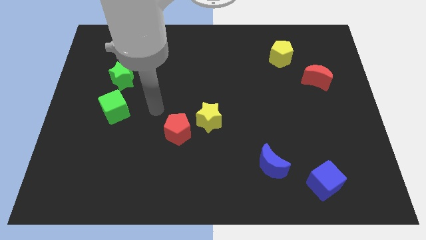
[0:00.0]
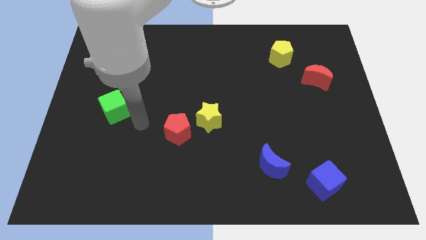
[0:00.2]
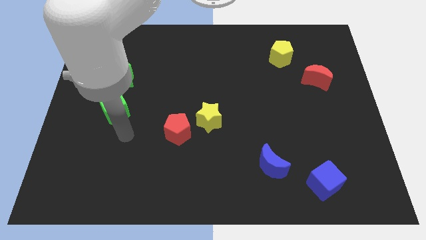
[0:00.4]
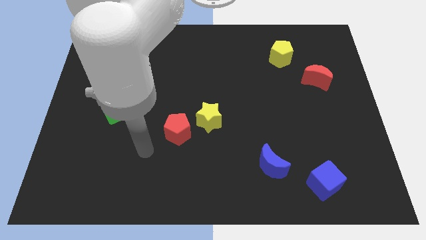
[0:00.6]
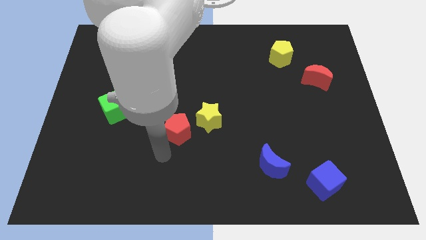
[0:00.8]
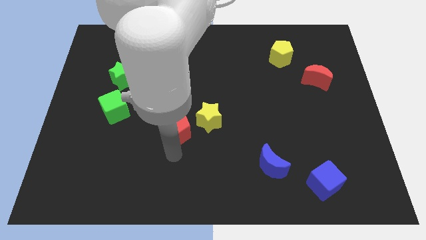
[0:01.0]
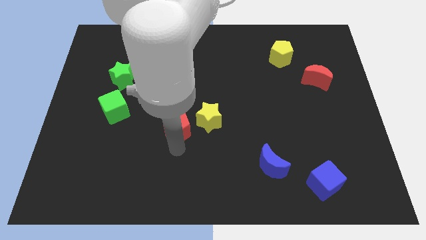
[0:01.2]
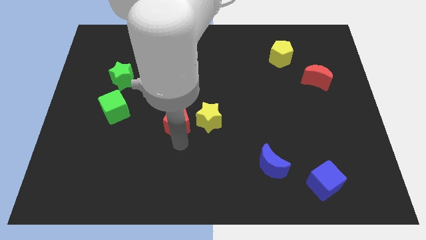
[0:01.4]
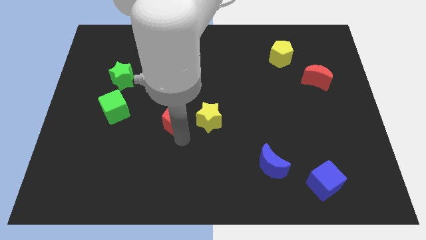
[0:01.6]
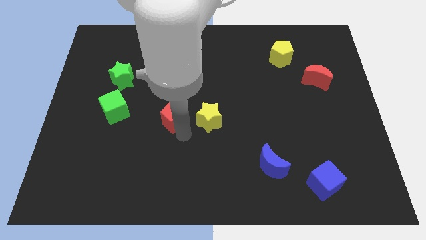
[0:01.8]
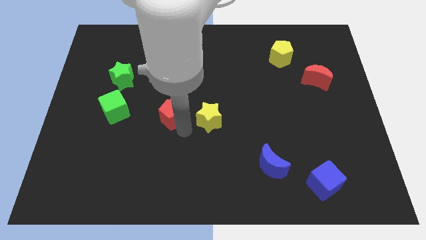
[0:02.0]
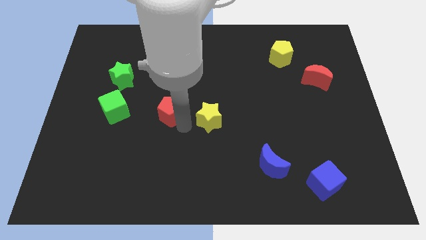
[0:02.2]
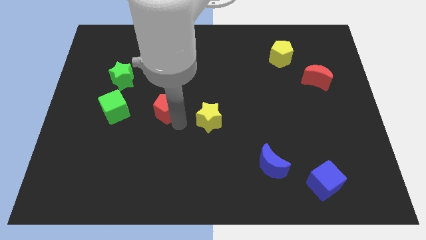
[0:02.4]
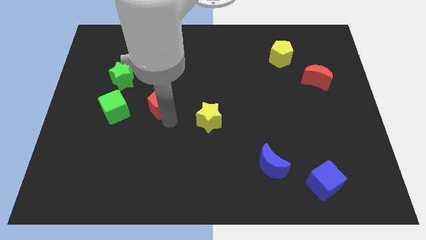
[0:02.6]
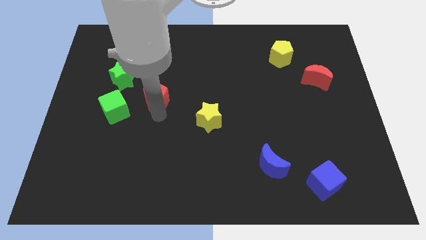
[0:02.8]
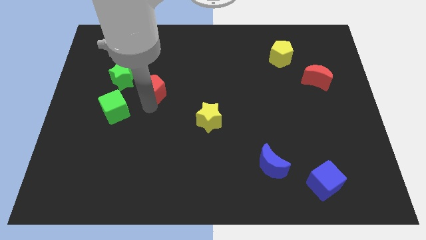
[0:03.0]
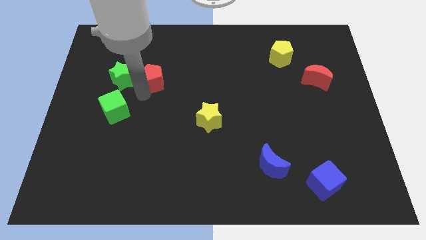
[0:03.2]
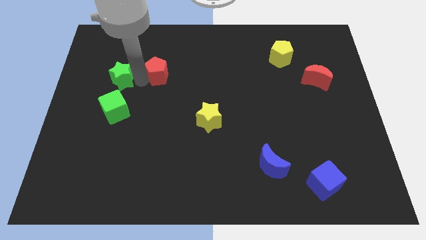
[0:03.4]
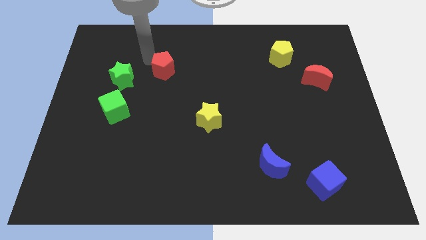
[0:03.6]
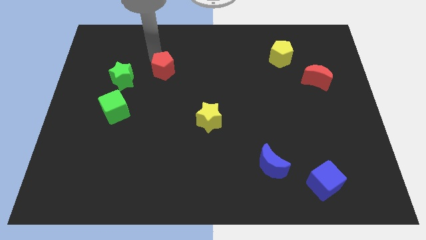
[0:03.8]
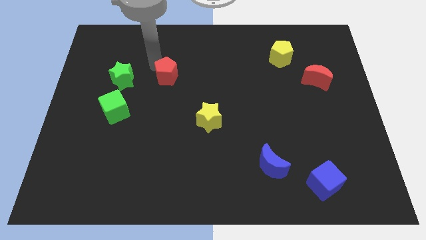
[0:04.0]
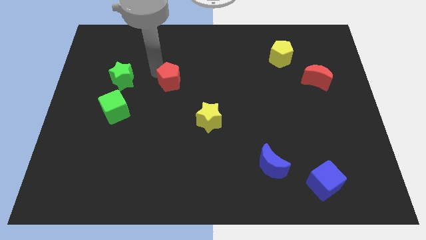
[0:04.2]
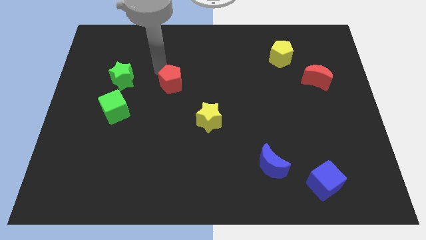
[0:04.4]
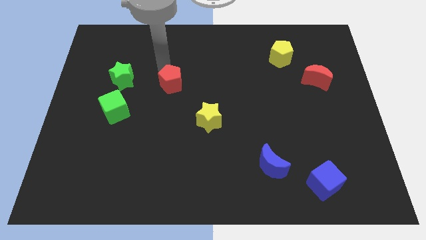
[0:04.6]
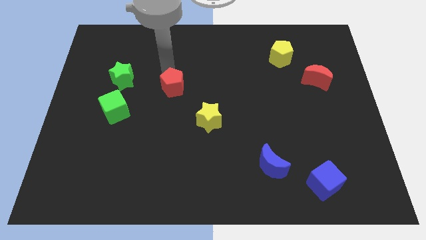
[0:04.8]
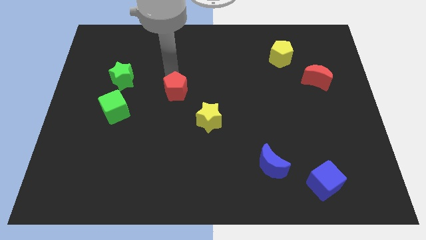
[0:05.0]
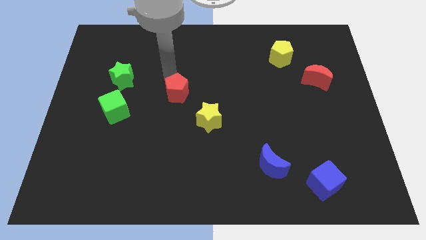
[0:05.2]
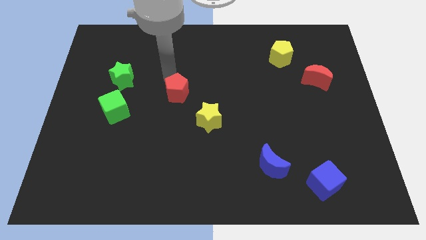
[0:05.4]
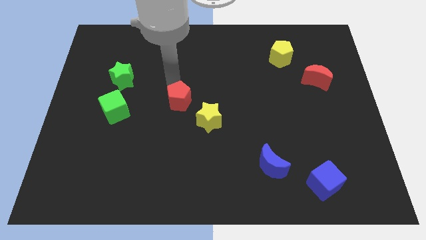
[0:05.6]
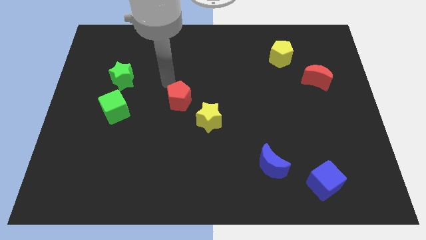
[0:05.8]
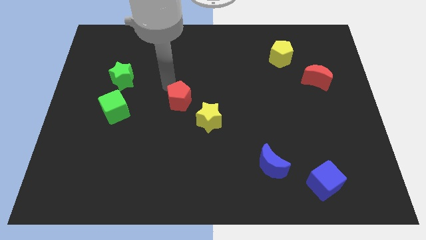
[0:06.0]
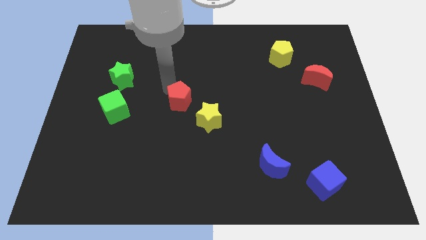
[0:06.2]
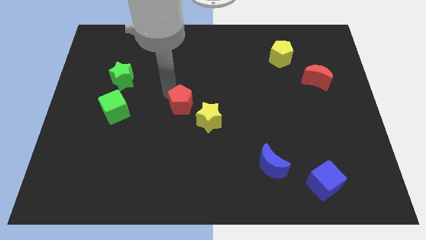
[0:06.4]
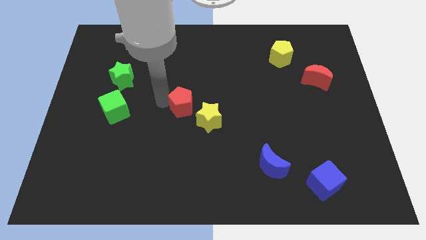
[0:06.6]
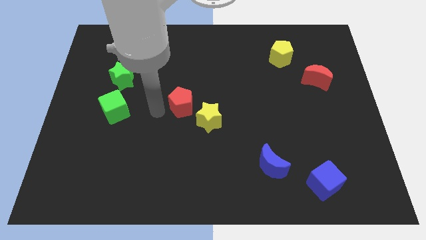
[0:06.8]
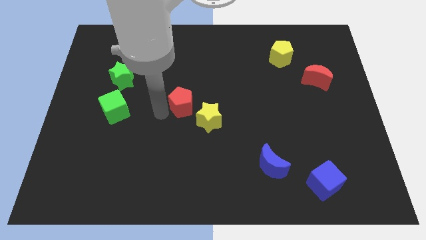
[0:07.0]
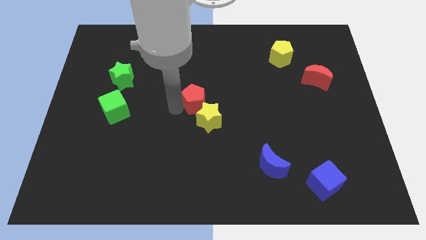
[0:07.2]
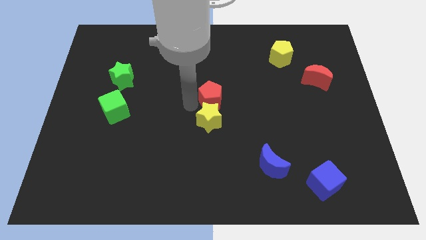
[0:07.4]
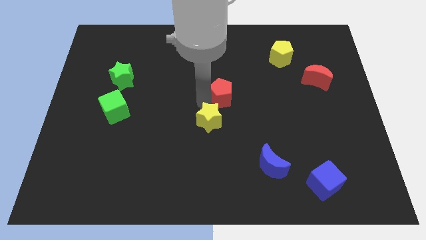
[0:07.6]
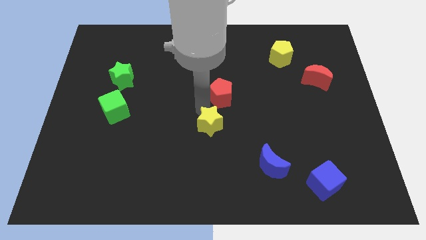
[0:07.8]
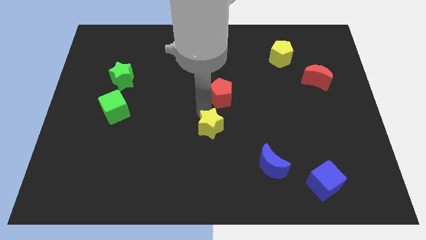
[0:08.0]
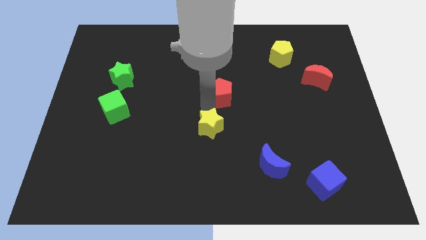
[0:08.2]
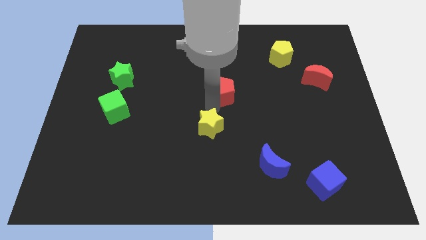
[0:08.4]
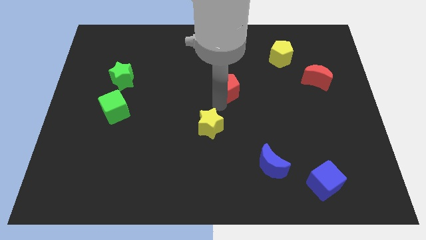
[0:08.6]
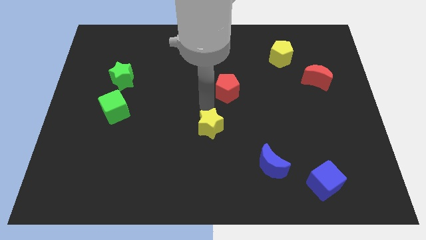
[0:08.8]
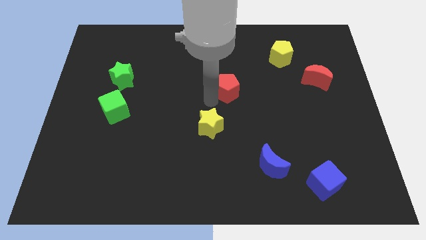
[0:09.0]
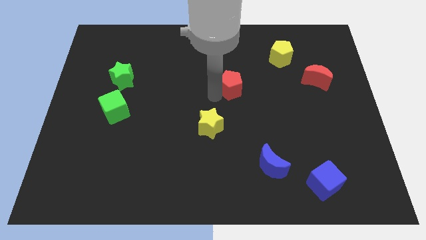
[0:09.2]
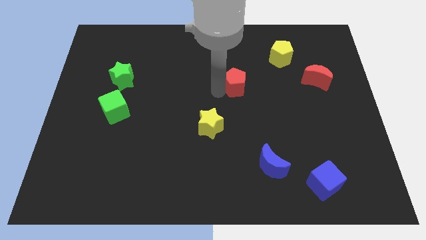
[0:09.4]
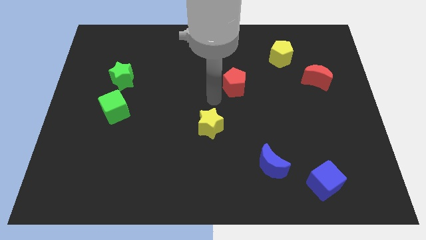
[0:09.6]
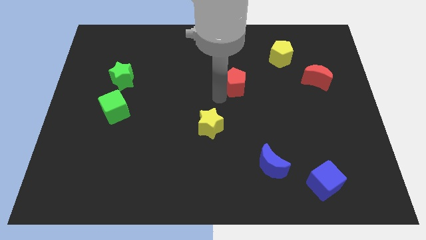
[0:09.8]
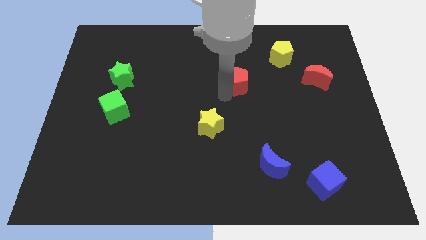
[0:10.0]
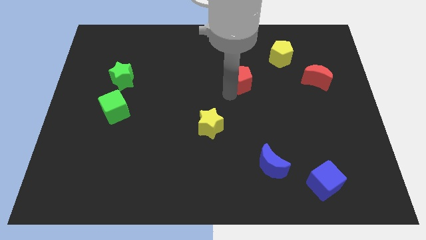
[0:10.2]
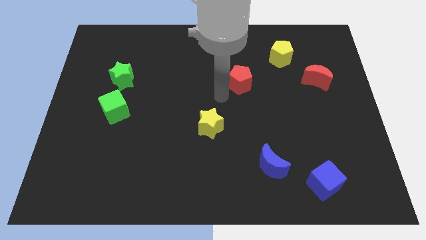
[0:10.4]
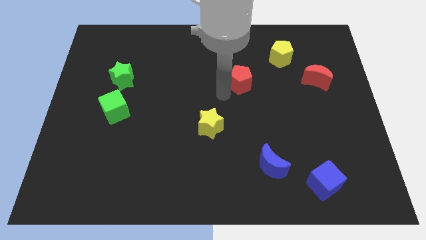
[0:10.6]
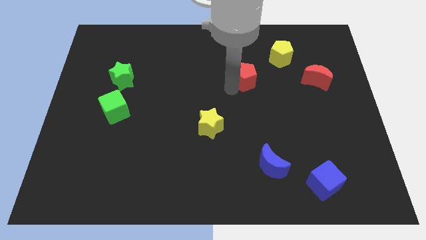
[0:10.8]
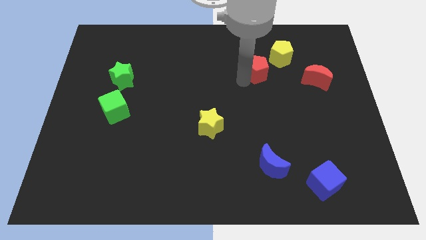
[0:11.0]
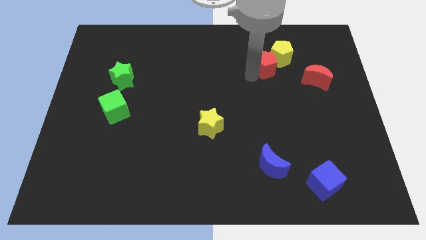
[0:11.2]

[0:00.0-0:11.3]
put the red pentagon next to the yellow pentagon

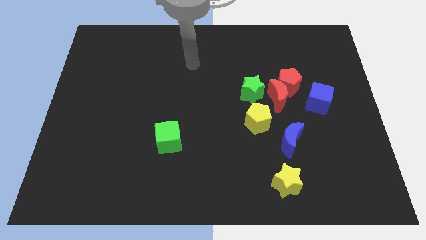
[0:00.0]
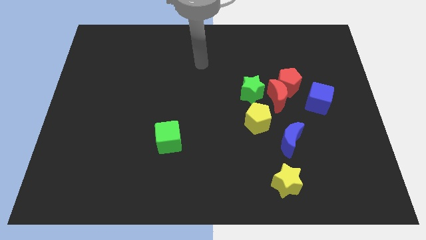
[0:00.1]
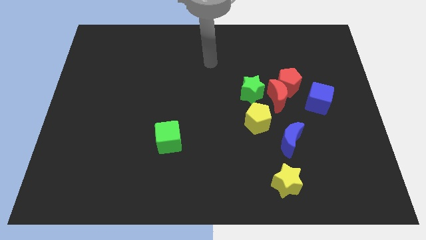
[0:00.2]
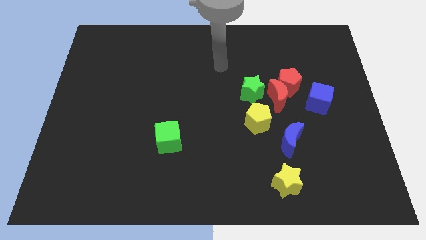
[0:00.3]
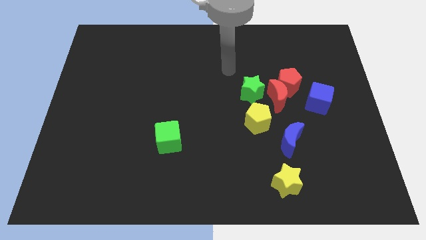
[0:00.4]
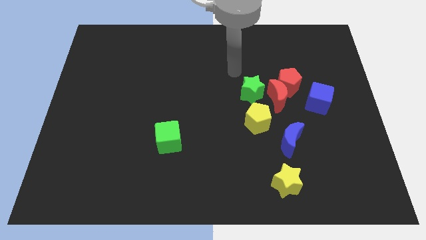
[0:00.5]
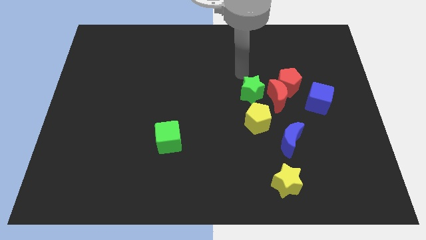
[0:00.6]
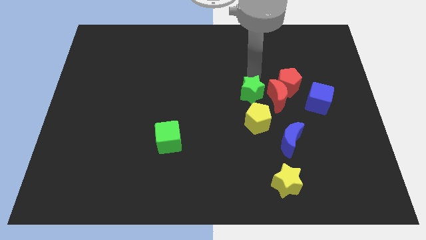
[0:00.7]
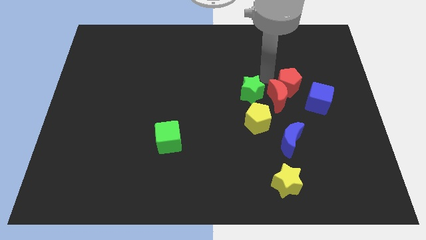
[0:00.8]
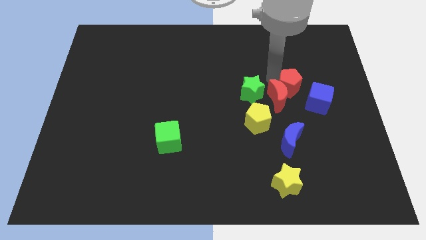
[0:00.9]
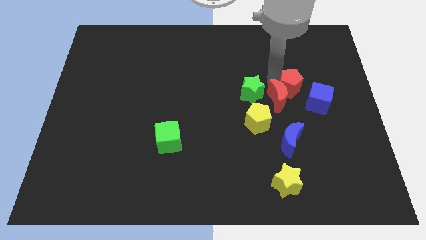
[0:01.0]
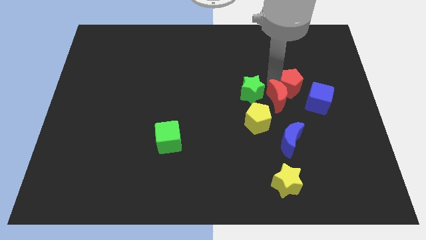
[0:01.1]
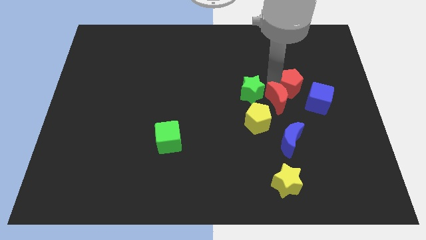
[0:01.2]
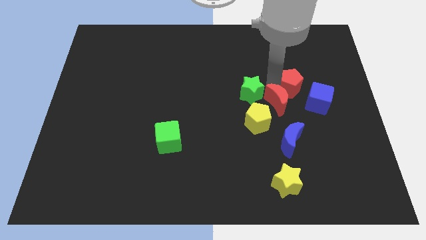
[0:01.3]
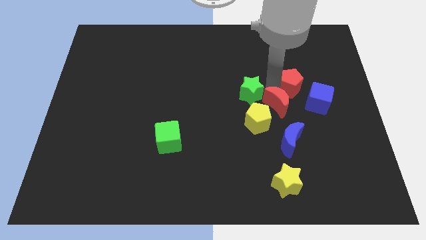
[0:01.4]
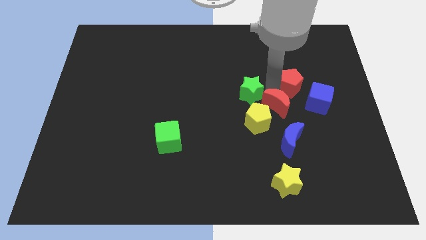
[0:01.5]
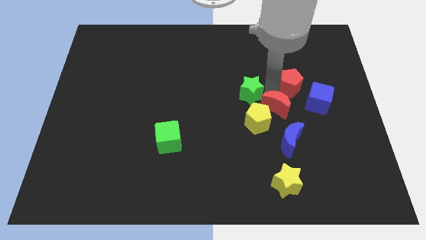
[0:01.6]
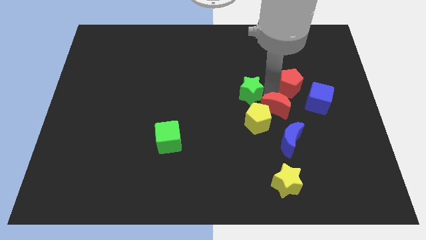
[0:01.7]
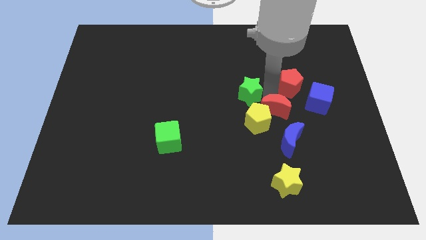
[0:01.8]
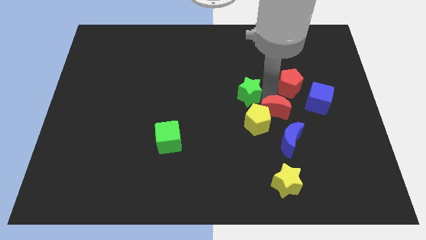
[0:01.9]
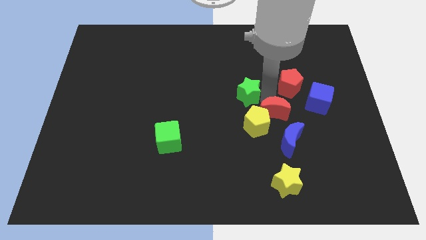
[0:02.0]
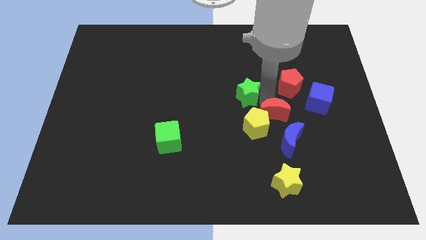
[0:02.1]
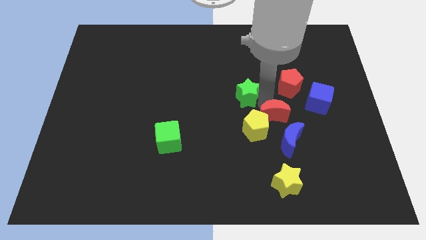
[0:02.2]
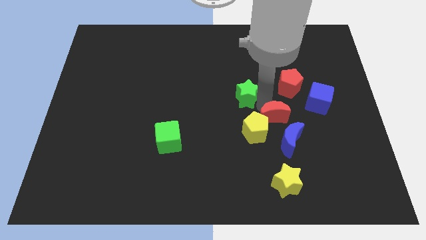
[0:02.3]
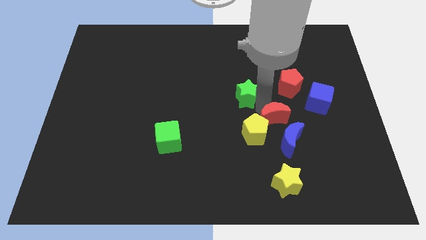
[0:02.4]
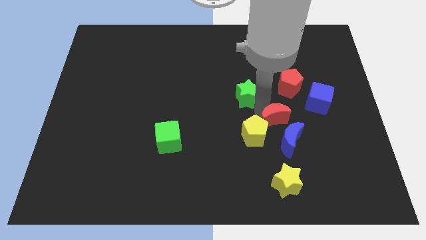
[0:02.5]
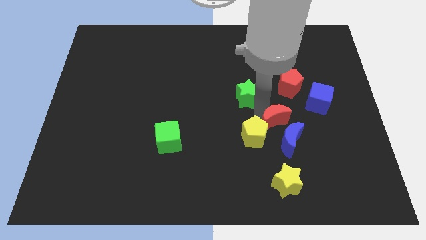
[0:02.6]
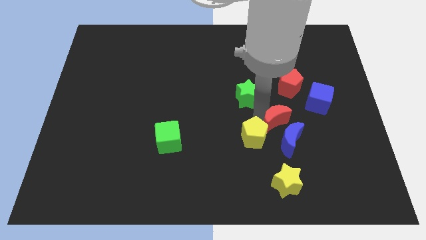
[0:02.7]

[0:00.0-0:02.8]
slide the red moon to the blue moon
